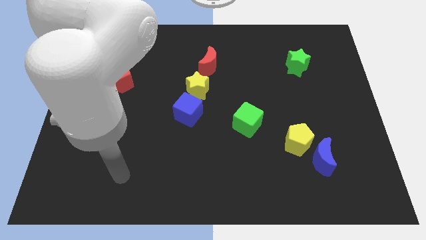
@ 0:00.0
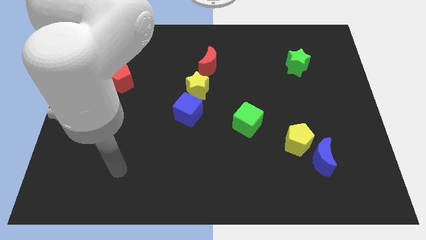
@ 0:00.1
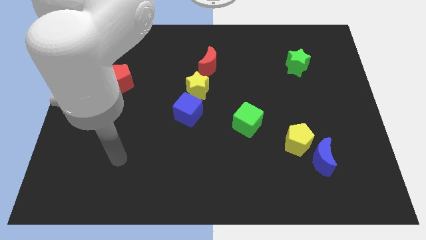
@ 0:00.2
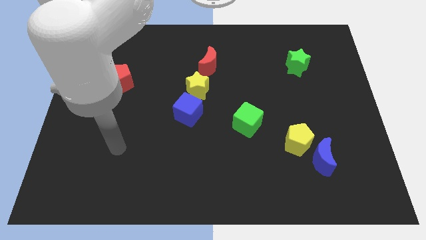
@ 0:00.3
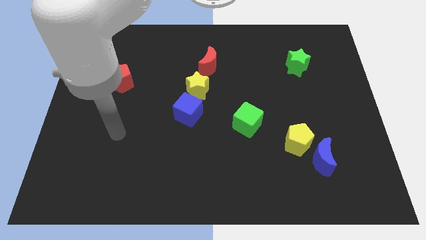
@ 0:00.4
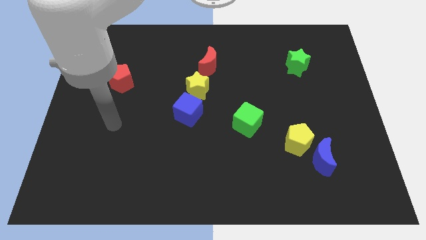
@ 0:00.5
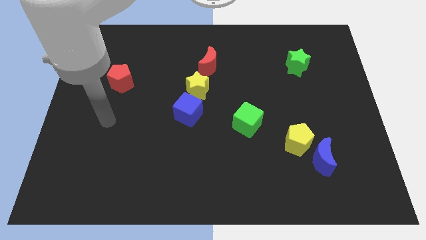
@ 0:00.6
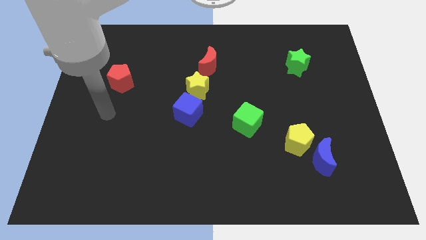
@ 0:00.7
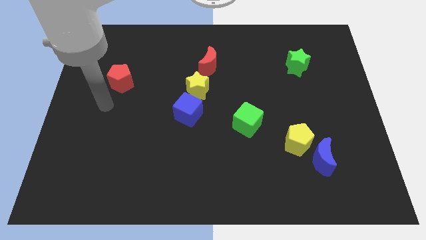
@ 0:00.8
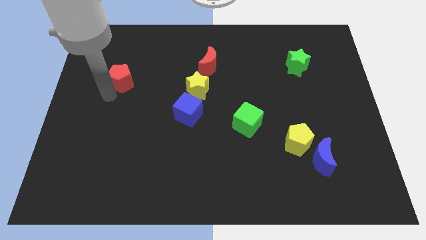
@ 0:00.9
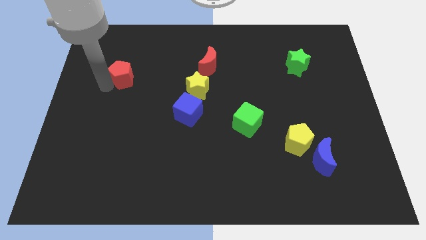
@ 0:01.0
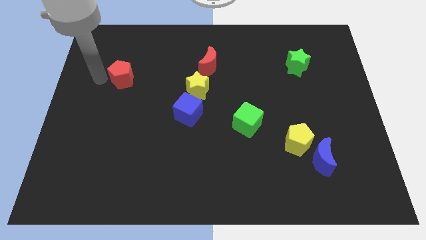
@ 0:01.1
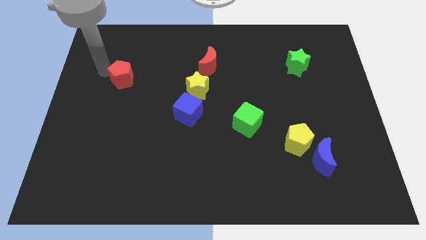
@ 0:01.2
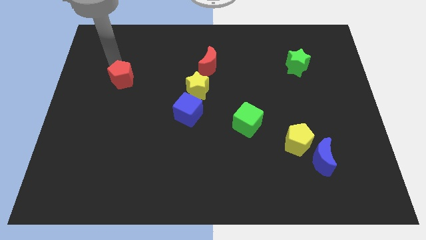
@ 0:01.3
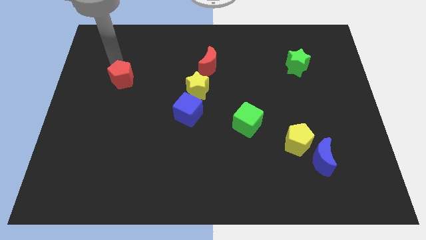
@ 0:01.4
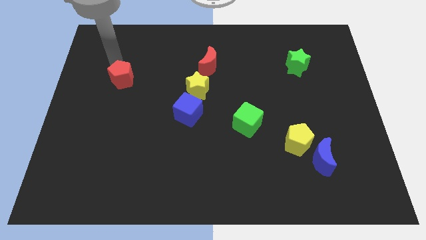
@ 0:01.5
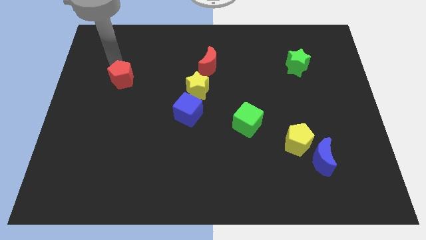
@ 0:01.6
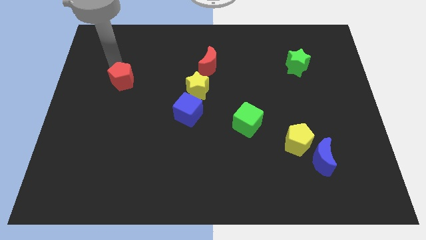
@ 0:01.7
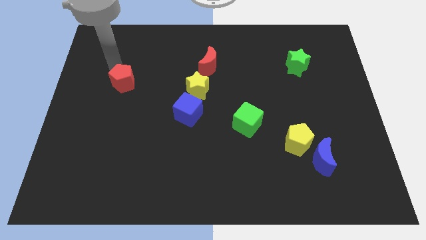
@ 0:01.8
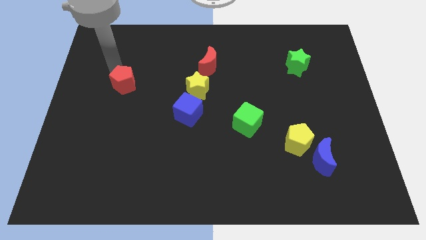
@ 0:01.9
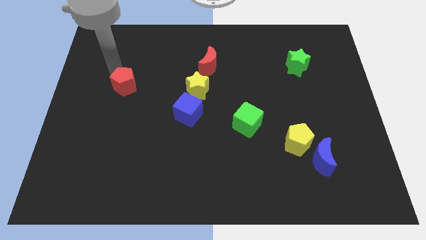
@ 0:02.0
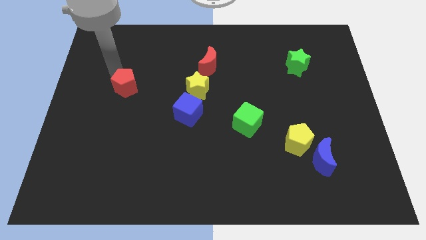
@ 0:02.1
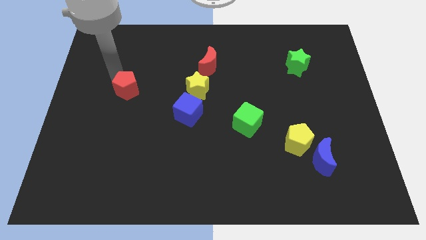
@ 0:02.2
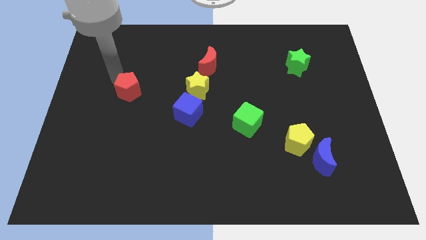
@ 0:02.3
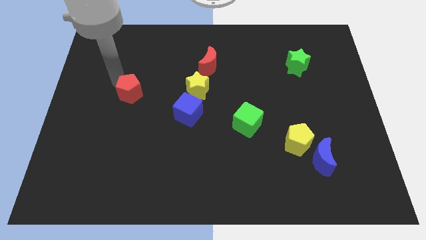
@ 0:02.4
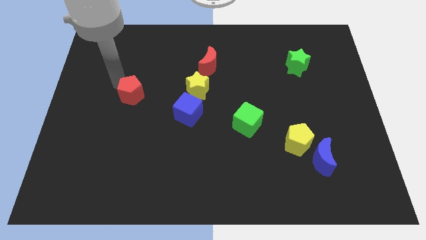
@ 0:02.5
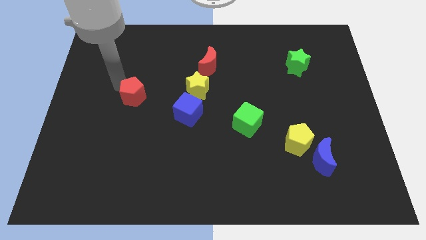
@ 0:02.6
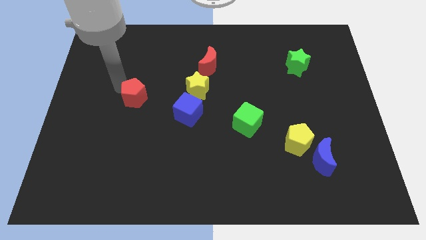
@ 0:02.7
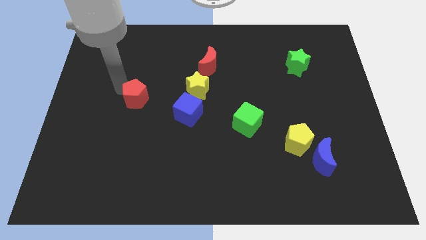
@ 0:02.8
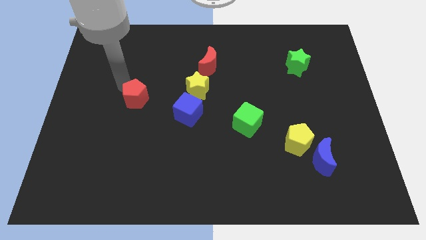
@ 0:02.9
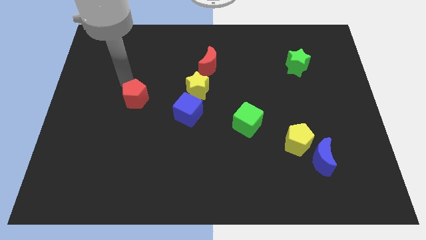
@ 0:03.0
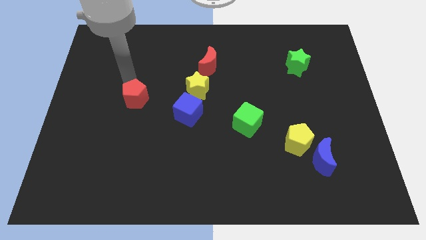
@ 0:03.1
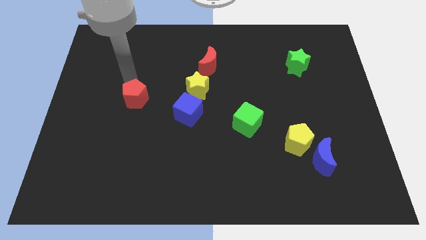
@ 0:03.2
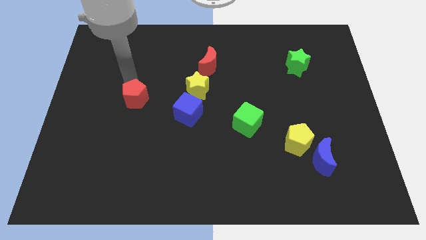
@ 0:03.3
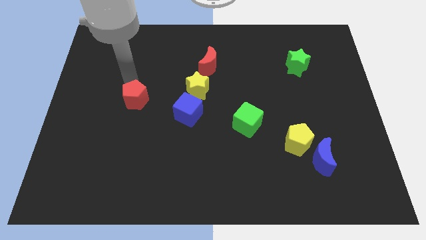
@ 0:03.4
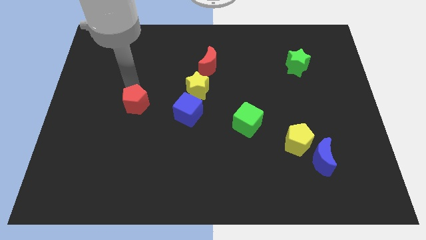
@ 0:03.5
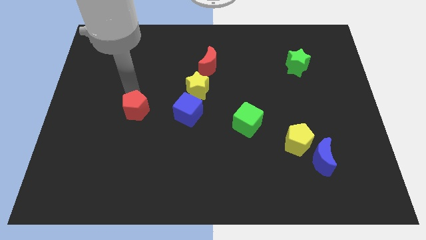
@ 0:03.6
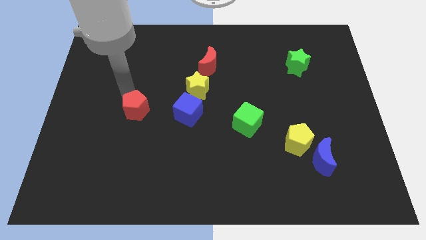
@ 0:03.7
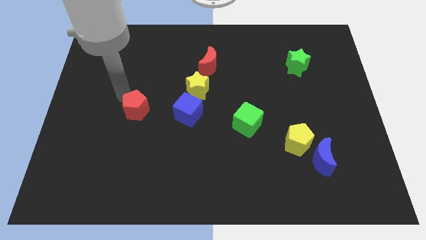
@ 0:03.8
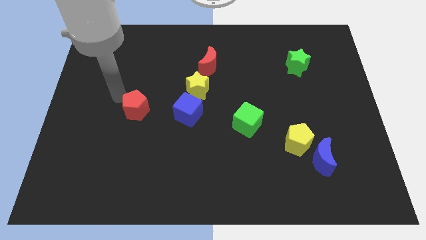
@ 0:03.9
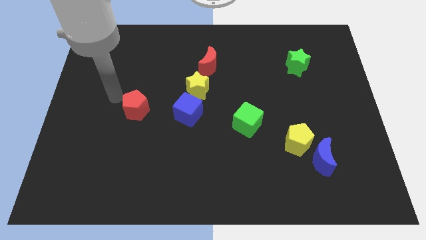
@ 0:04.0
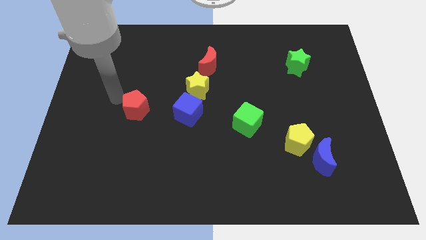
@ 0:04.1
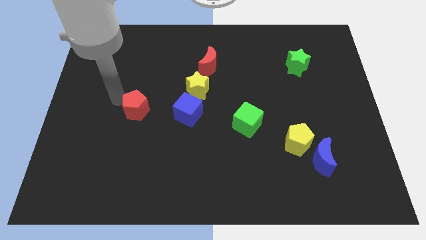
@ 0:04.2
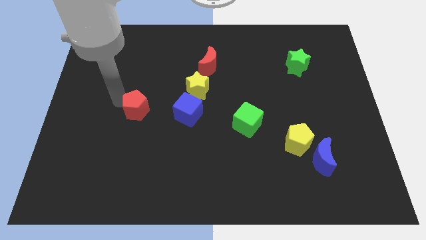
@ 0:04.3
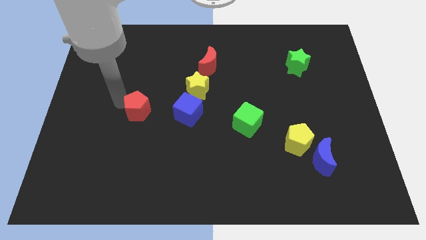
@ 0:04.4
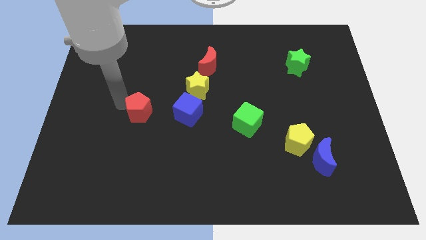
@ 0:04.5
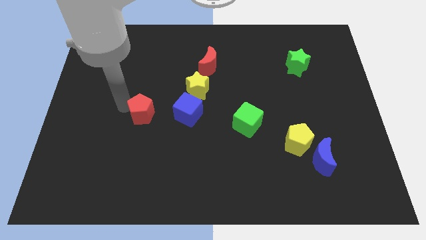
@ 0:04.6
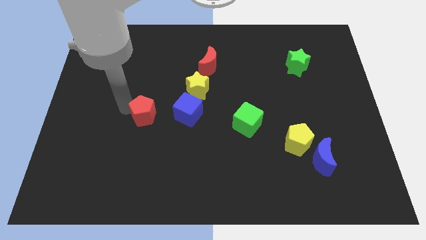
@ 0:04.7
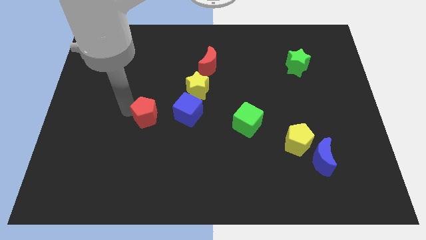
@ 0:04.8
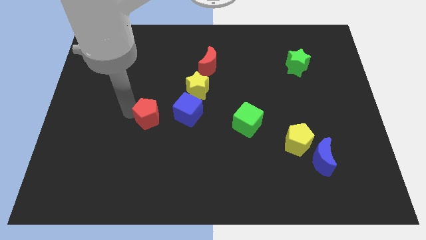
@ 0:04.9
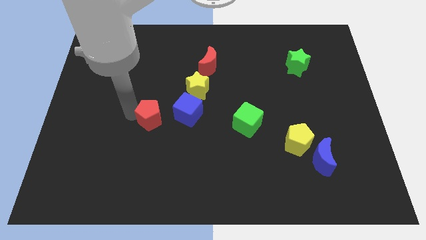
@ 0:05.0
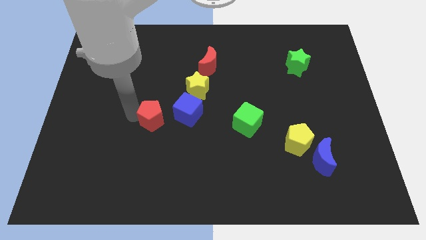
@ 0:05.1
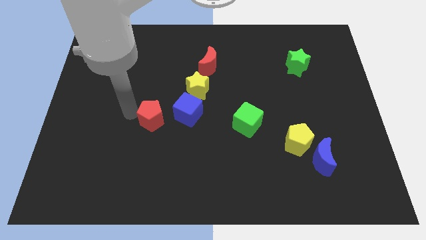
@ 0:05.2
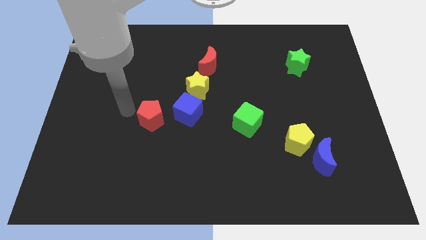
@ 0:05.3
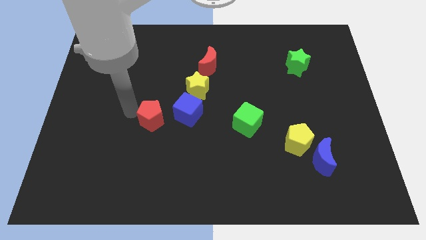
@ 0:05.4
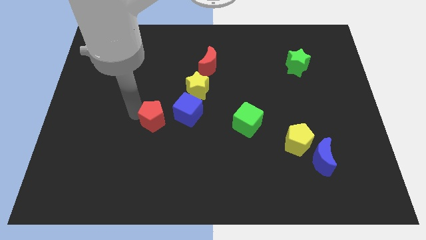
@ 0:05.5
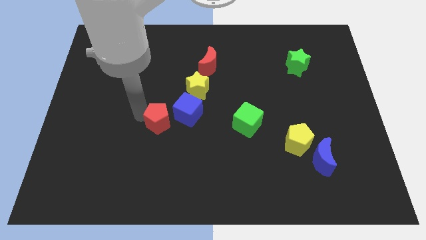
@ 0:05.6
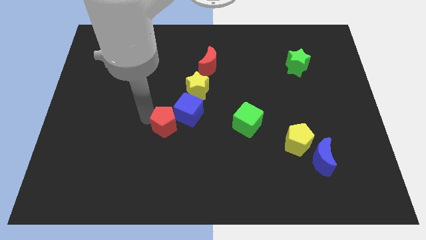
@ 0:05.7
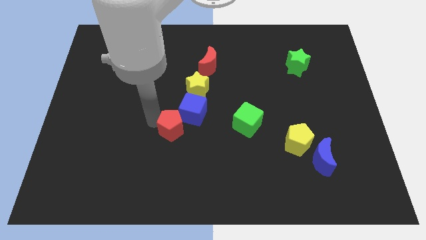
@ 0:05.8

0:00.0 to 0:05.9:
move the red pentagon to the center of the board
